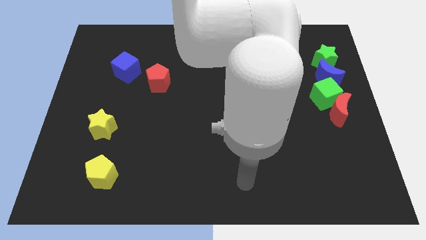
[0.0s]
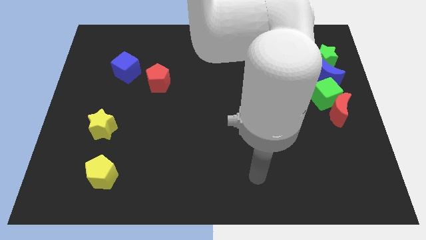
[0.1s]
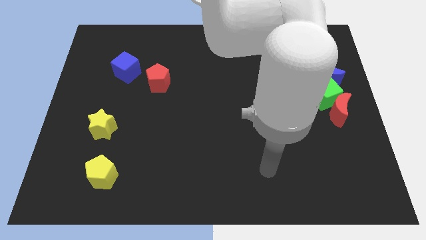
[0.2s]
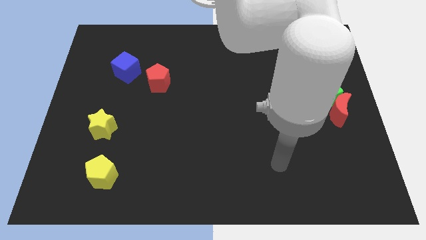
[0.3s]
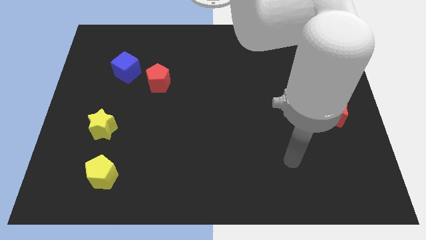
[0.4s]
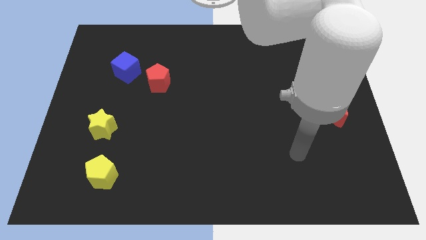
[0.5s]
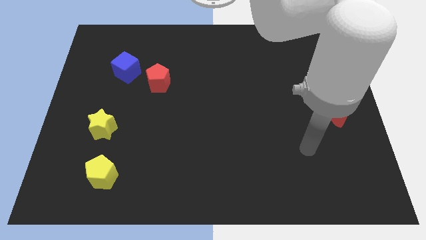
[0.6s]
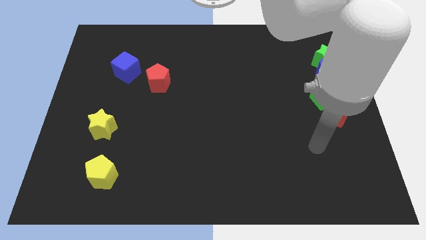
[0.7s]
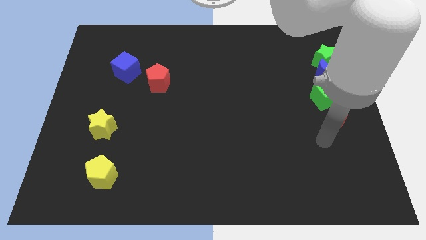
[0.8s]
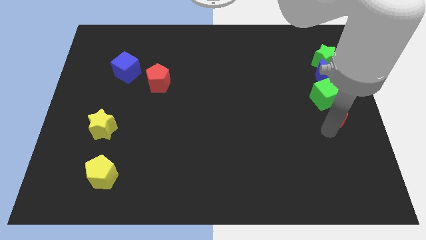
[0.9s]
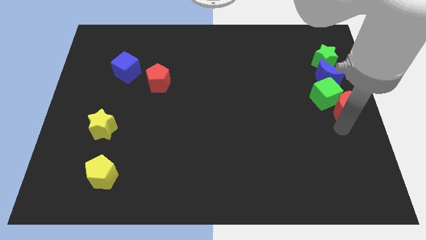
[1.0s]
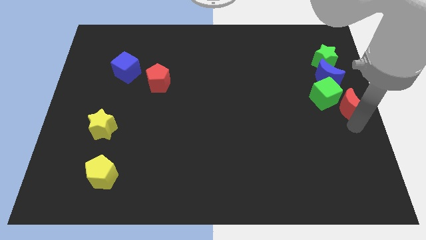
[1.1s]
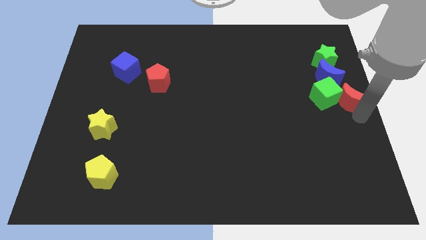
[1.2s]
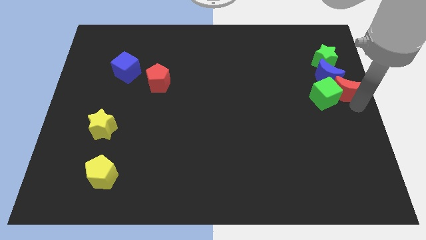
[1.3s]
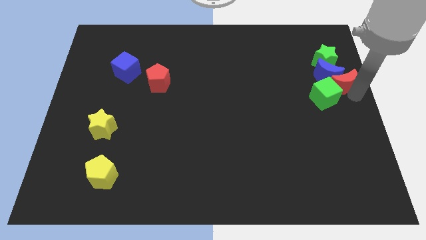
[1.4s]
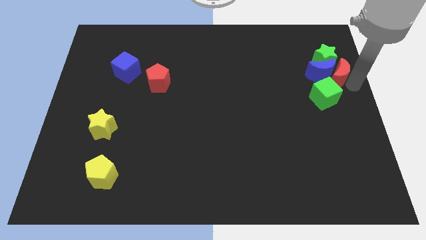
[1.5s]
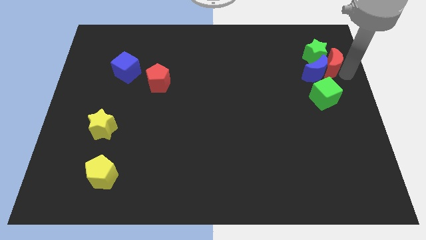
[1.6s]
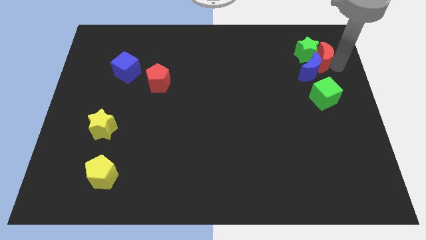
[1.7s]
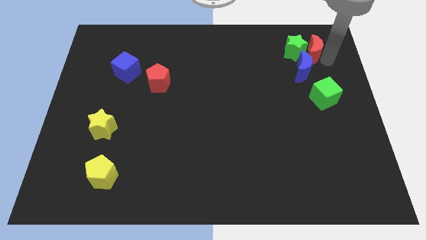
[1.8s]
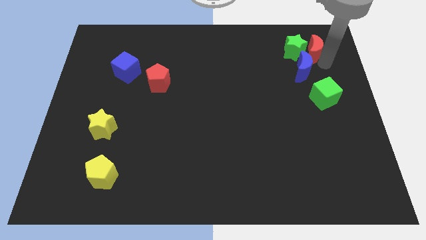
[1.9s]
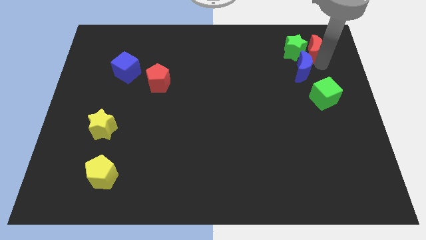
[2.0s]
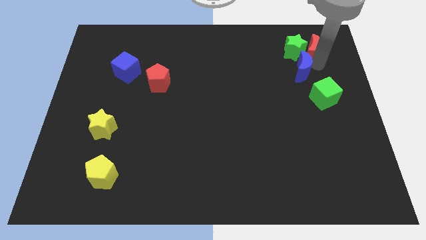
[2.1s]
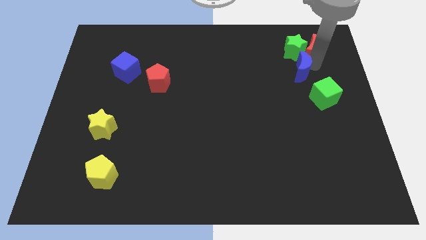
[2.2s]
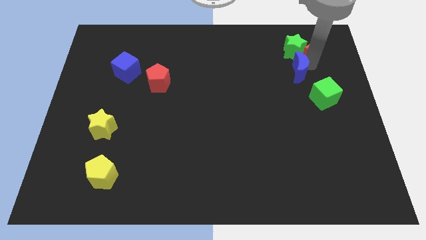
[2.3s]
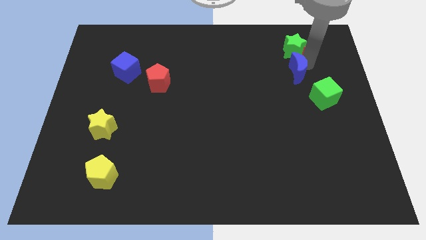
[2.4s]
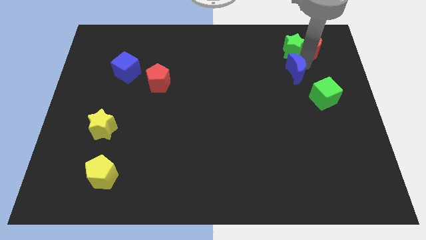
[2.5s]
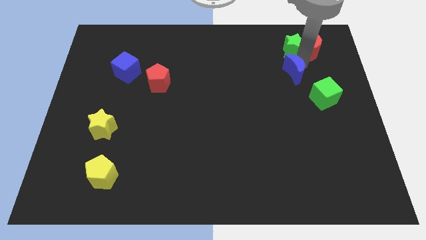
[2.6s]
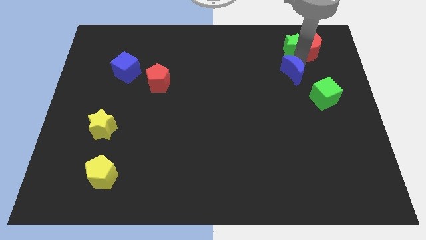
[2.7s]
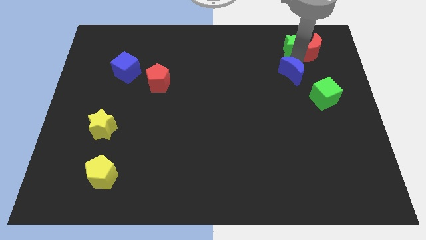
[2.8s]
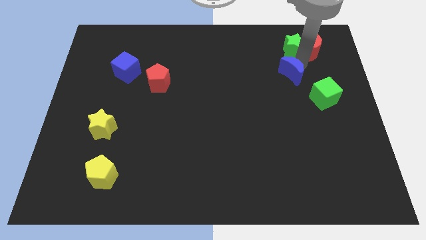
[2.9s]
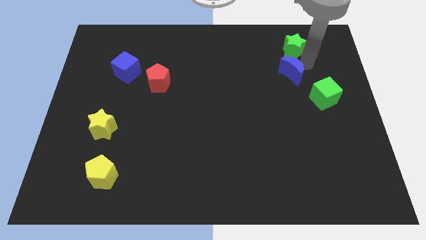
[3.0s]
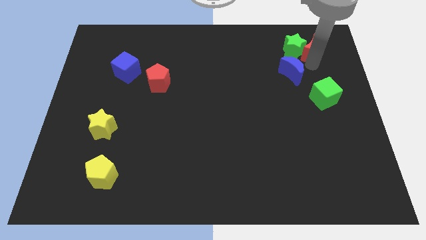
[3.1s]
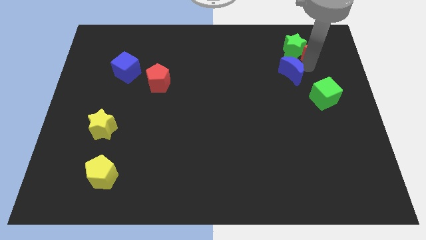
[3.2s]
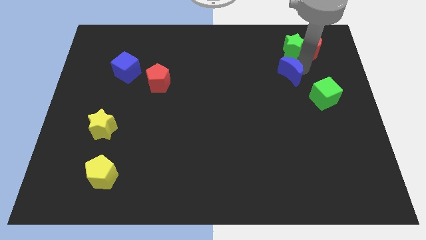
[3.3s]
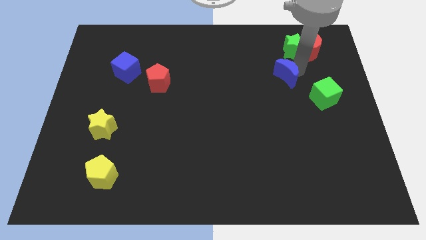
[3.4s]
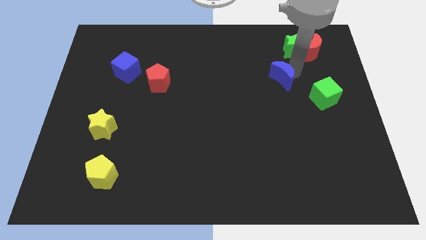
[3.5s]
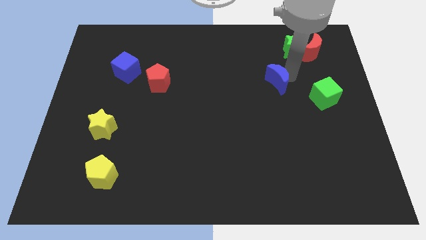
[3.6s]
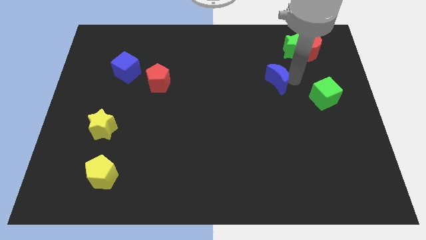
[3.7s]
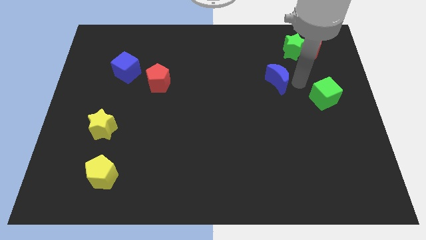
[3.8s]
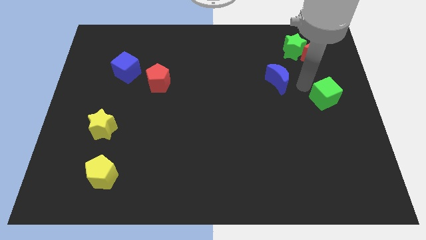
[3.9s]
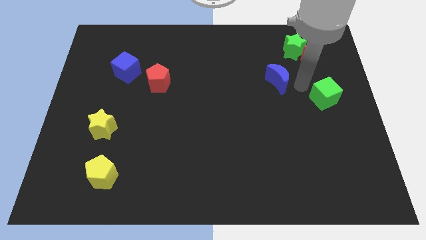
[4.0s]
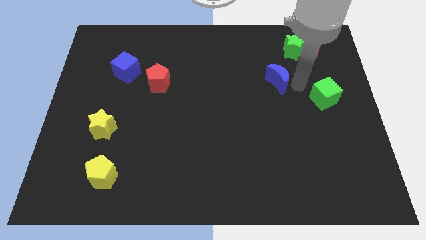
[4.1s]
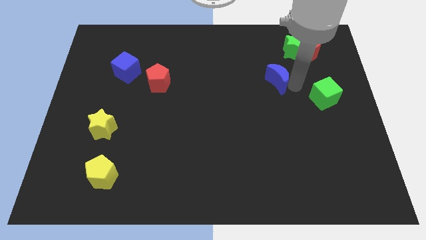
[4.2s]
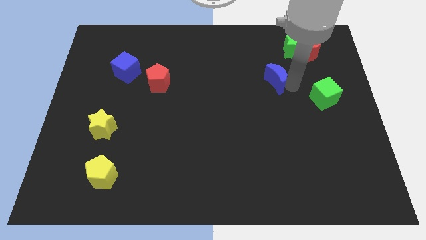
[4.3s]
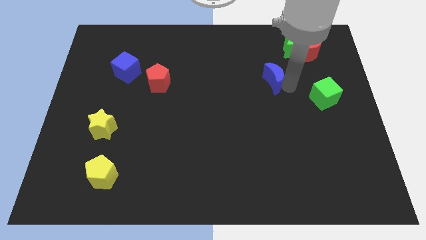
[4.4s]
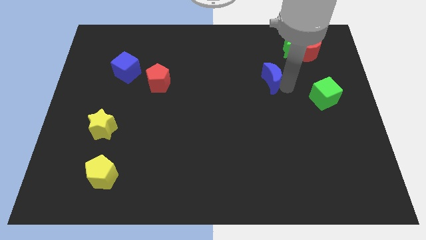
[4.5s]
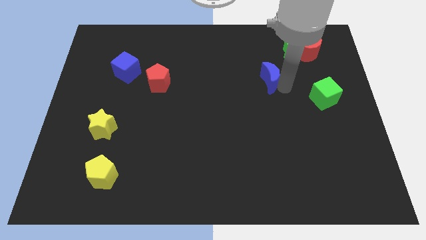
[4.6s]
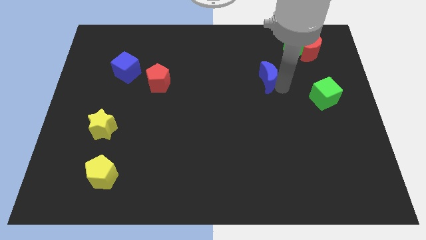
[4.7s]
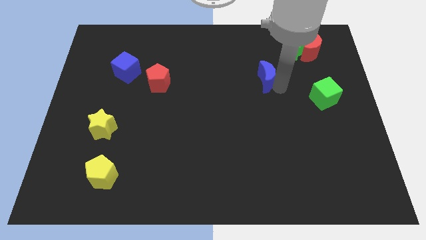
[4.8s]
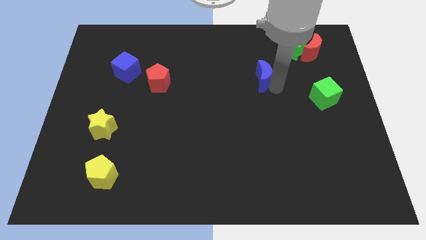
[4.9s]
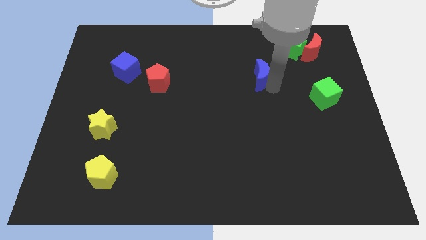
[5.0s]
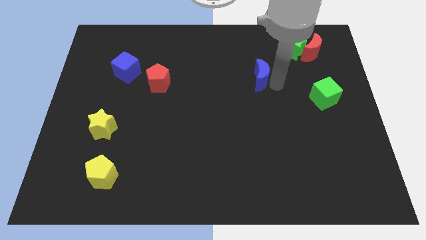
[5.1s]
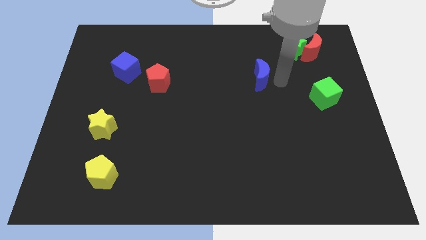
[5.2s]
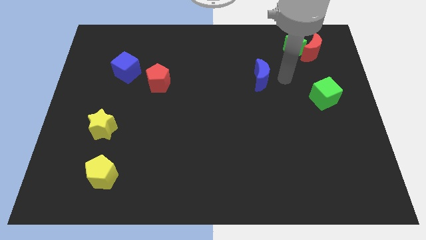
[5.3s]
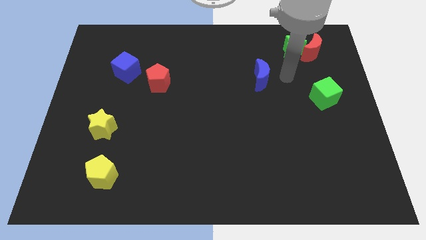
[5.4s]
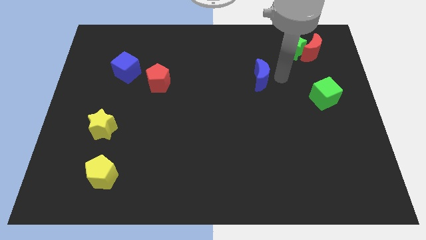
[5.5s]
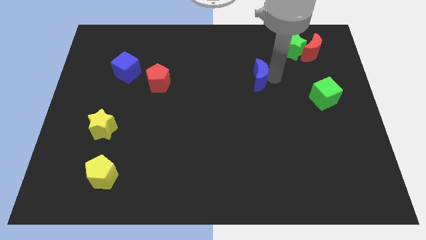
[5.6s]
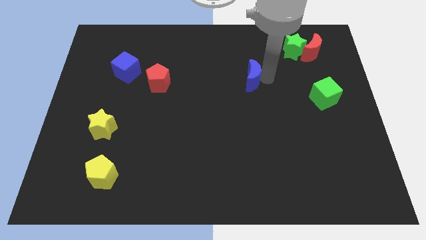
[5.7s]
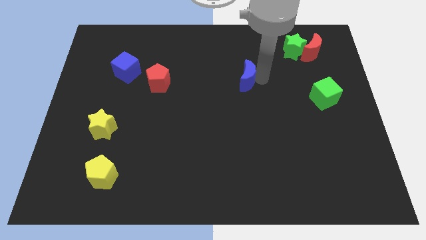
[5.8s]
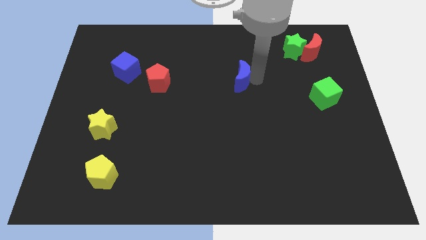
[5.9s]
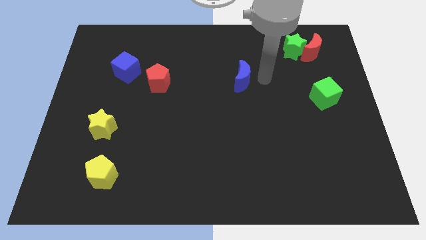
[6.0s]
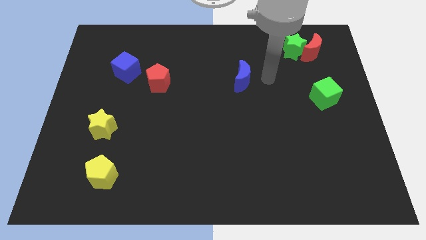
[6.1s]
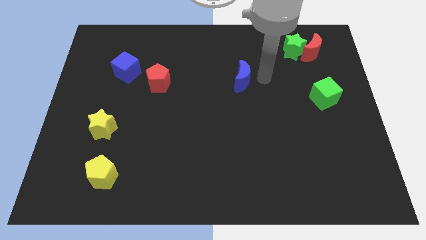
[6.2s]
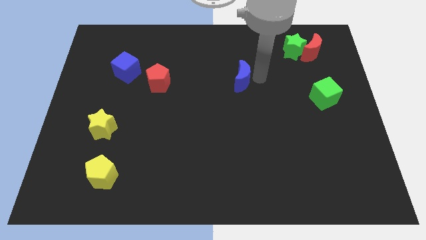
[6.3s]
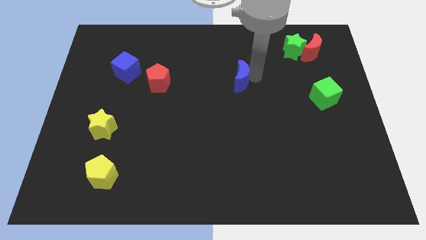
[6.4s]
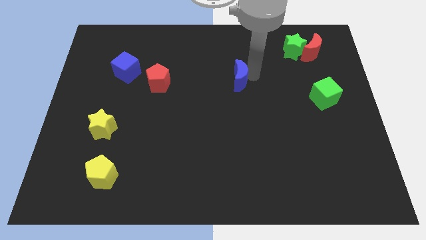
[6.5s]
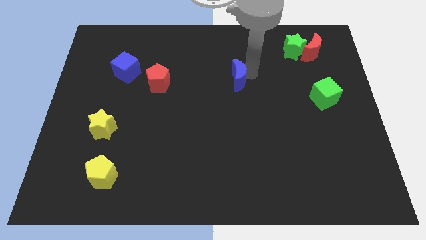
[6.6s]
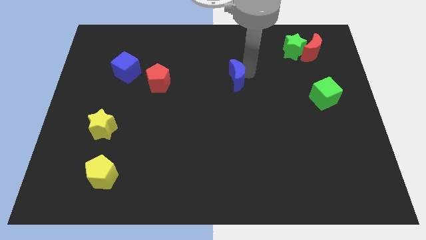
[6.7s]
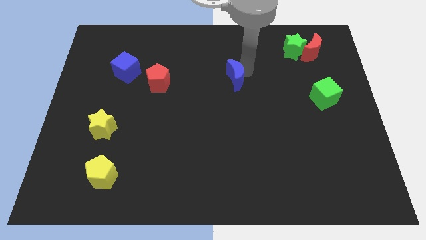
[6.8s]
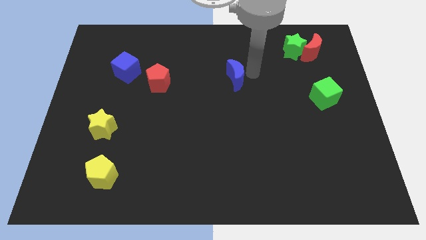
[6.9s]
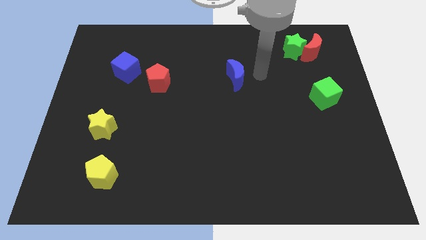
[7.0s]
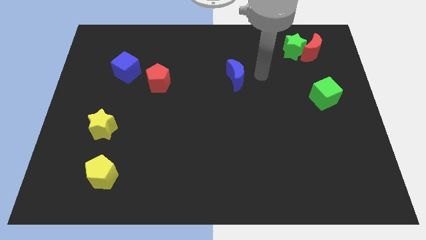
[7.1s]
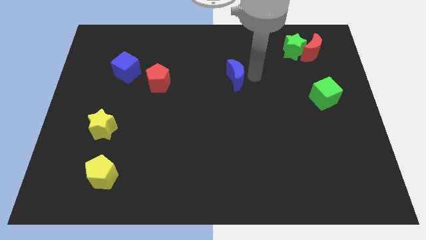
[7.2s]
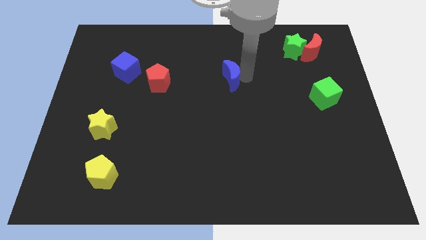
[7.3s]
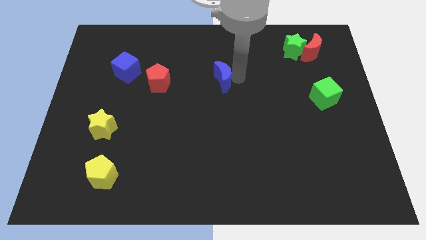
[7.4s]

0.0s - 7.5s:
slide the blue moon right of the red pentagon

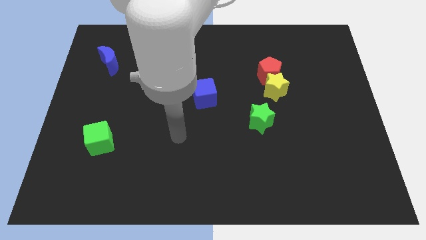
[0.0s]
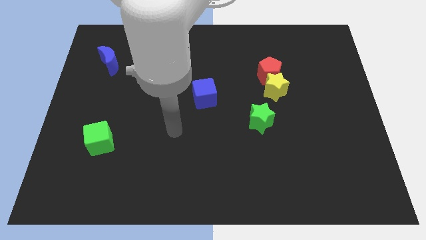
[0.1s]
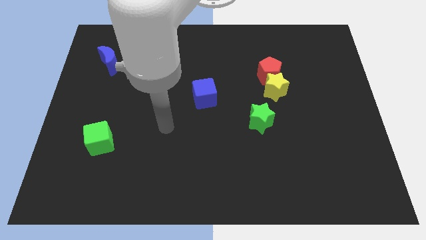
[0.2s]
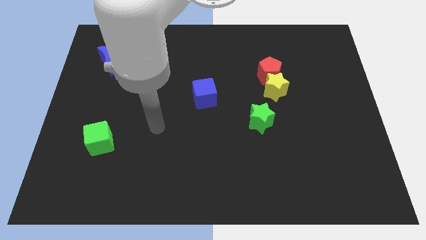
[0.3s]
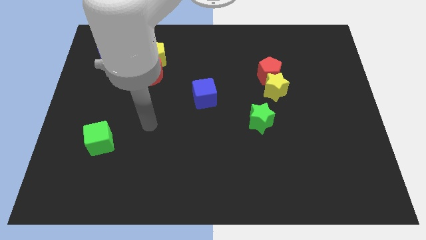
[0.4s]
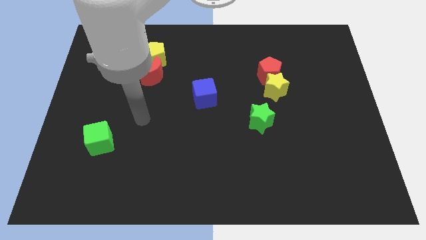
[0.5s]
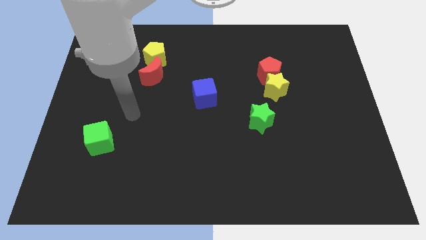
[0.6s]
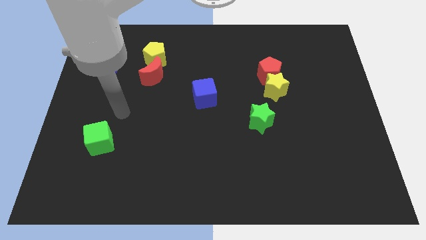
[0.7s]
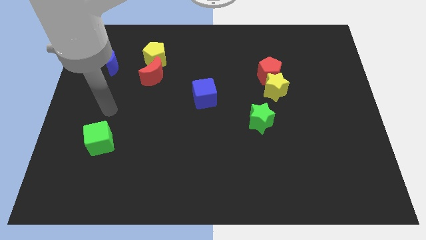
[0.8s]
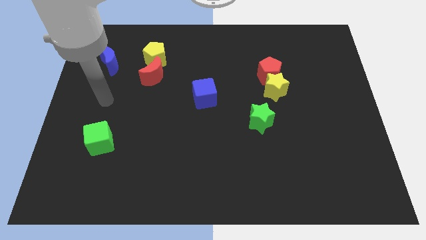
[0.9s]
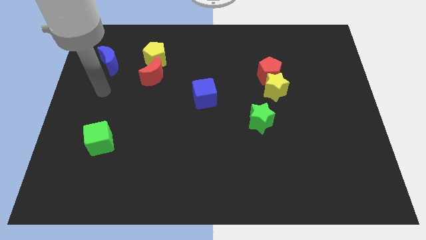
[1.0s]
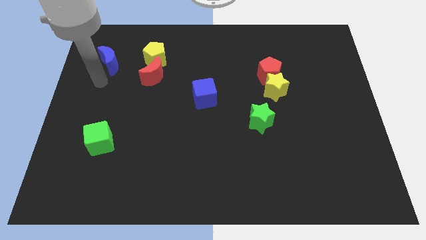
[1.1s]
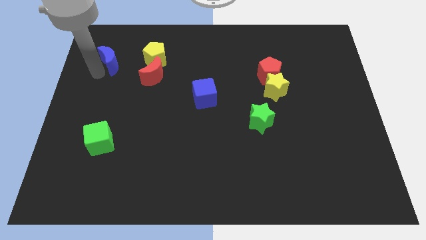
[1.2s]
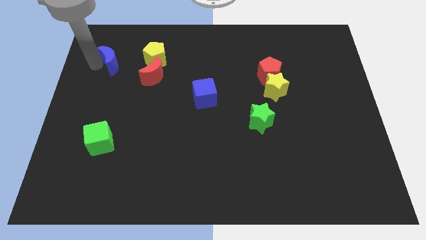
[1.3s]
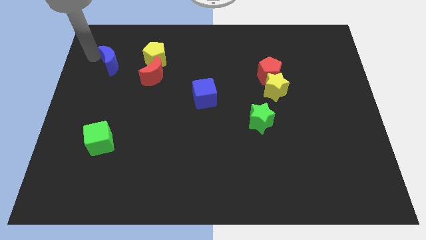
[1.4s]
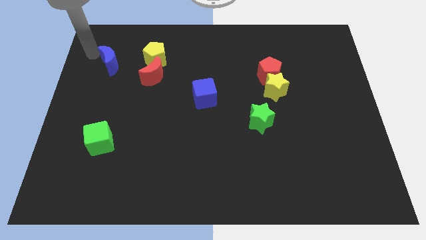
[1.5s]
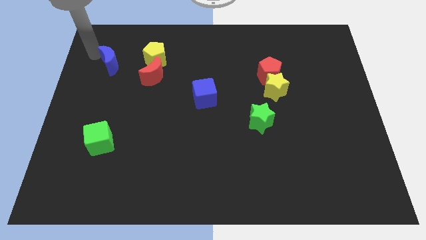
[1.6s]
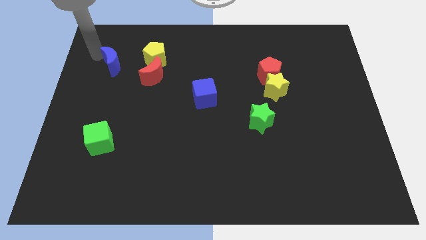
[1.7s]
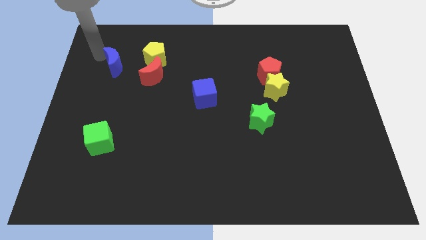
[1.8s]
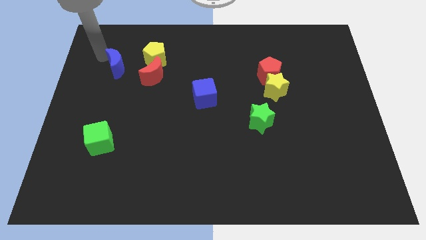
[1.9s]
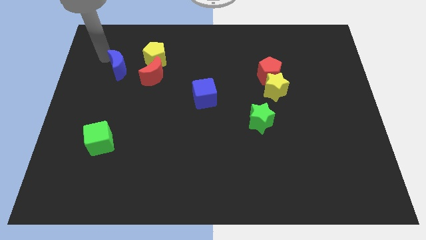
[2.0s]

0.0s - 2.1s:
put the blue moon diagonally down and to the left of the yellow pentagon
